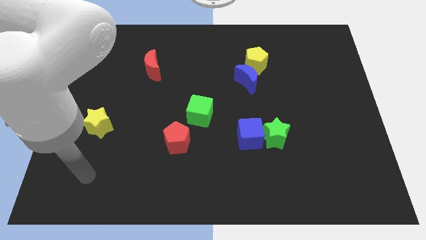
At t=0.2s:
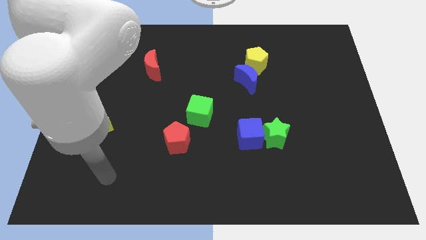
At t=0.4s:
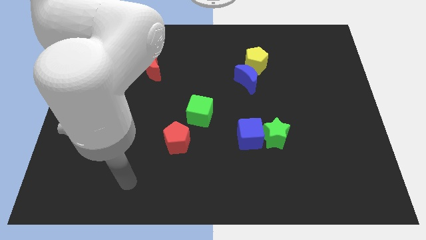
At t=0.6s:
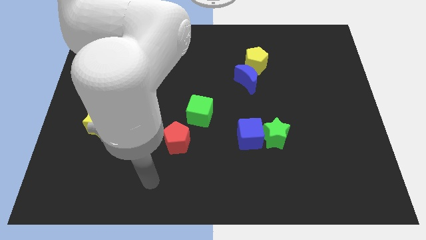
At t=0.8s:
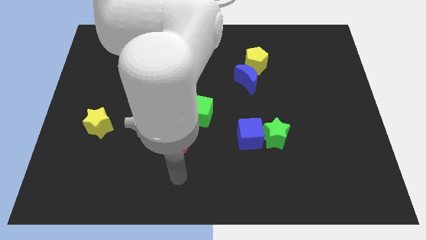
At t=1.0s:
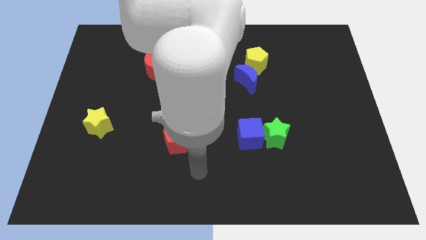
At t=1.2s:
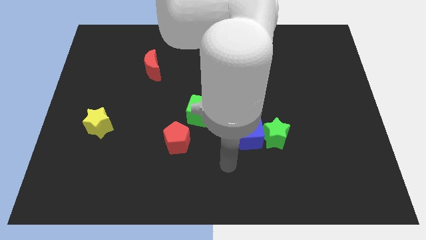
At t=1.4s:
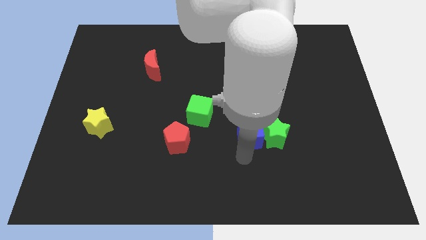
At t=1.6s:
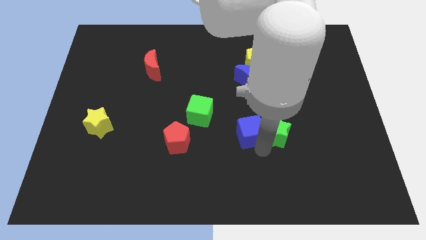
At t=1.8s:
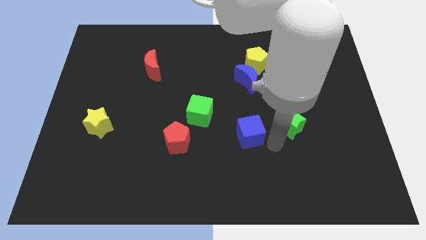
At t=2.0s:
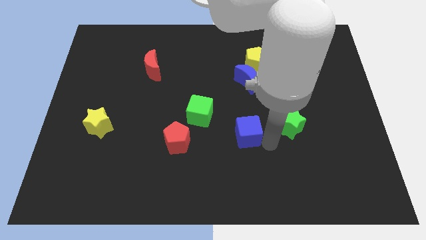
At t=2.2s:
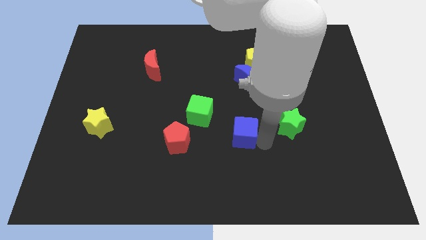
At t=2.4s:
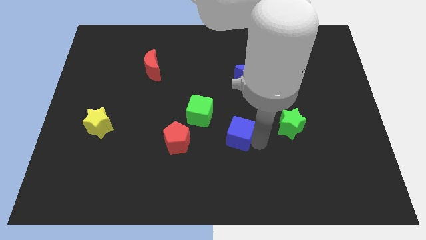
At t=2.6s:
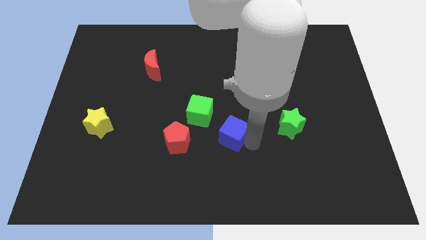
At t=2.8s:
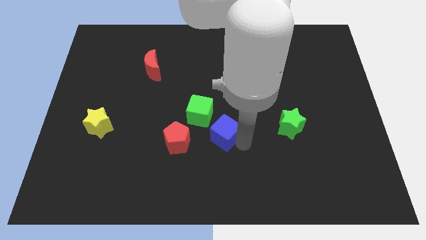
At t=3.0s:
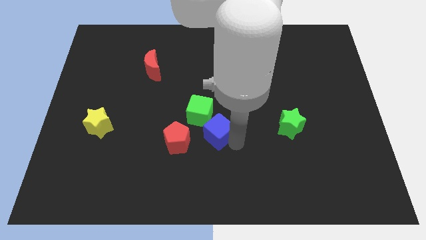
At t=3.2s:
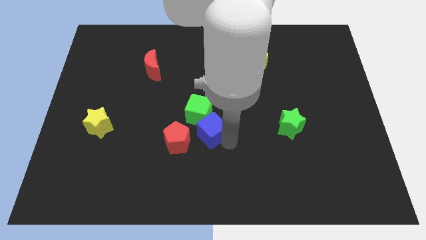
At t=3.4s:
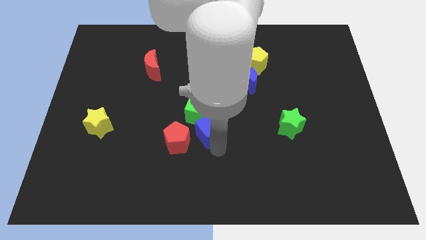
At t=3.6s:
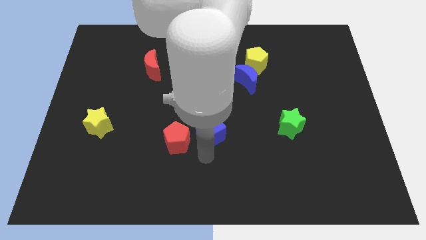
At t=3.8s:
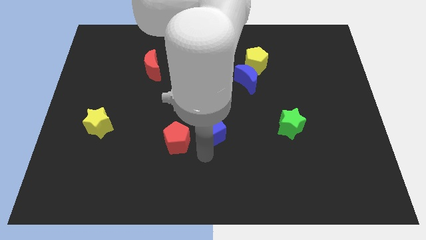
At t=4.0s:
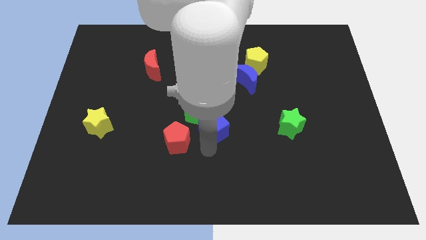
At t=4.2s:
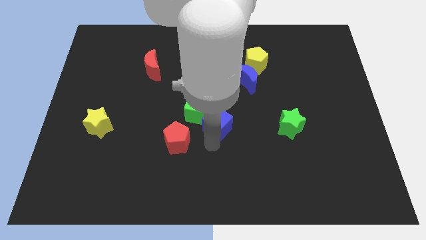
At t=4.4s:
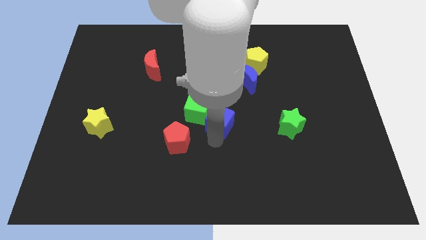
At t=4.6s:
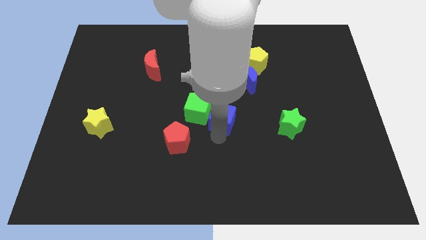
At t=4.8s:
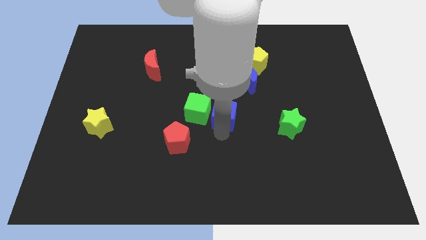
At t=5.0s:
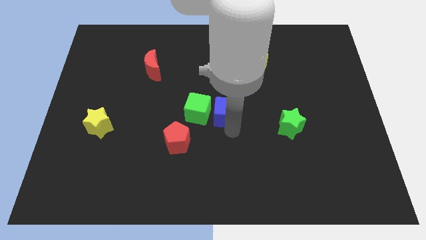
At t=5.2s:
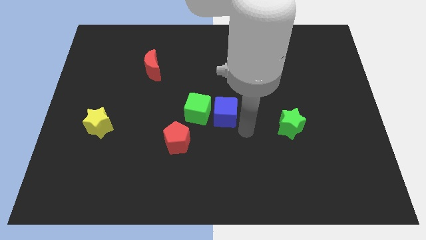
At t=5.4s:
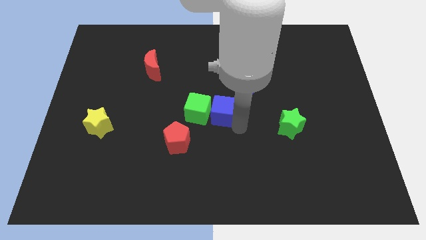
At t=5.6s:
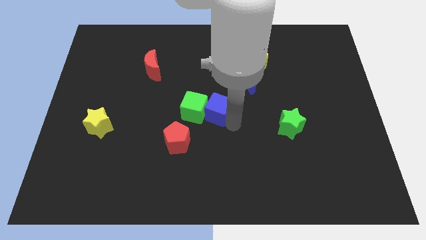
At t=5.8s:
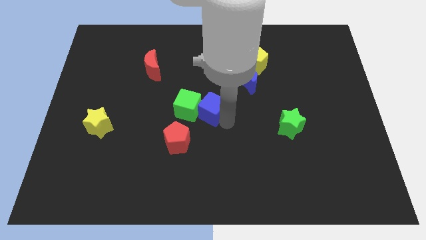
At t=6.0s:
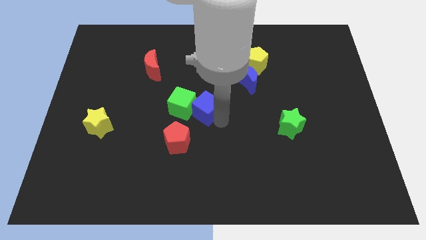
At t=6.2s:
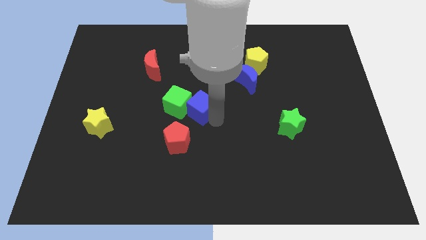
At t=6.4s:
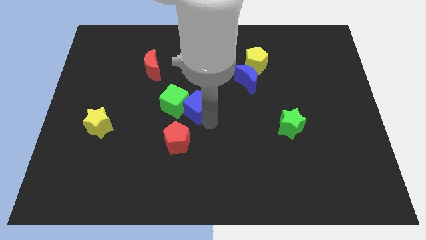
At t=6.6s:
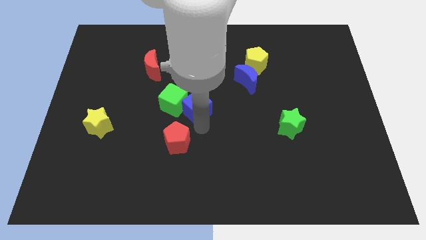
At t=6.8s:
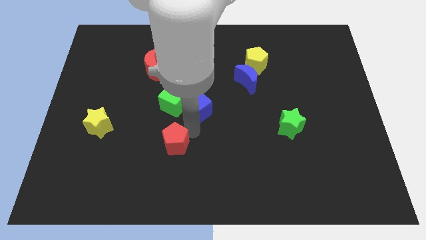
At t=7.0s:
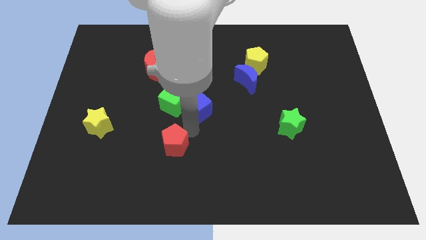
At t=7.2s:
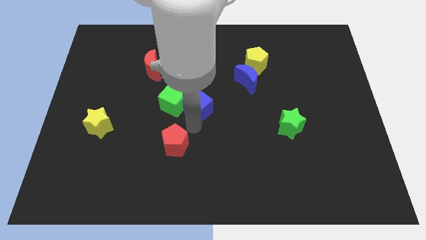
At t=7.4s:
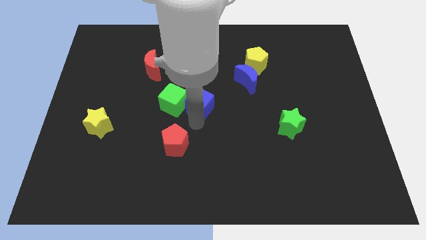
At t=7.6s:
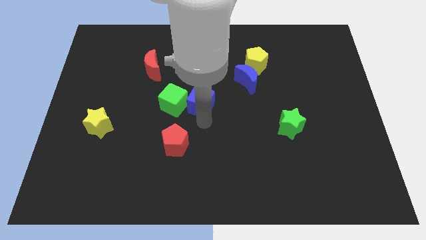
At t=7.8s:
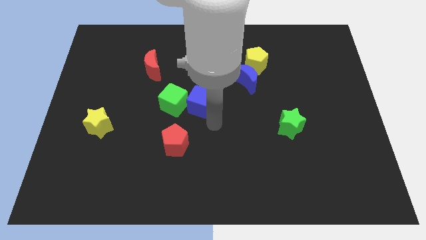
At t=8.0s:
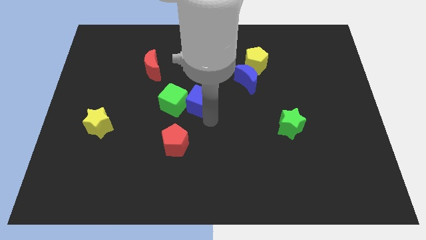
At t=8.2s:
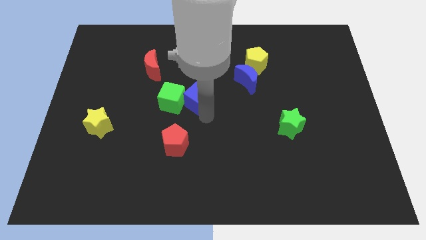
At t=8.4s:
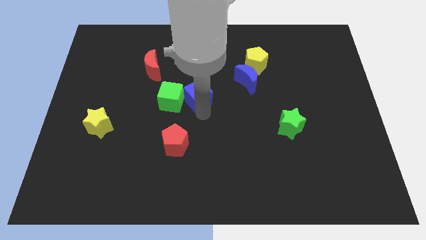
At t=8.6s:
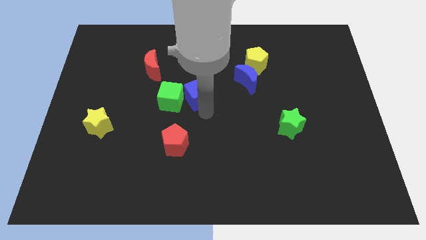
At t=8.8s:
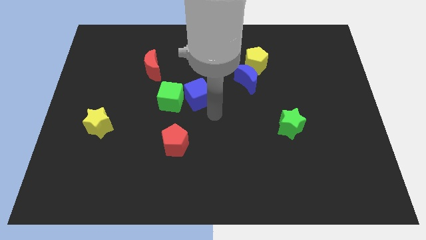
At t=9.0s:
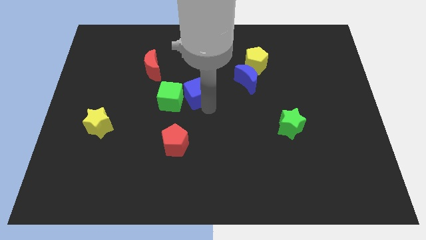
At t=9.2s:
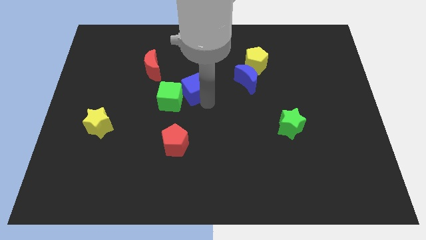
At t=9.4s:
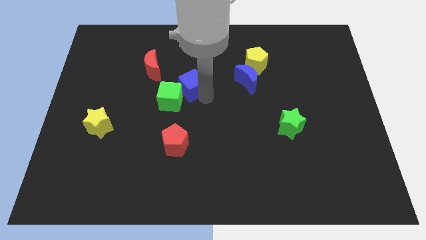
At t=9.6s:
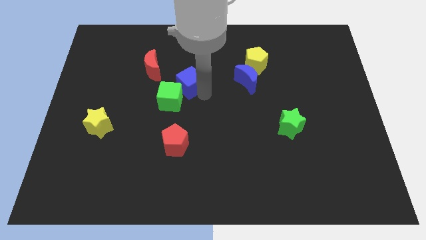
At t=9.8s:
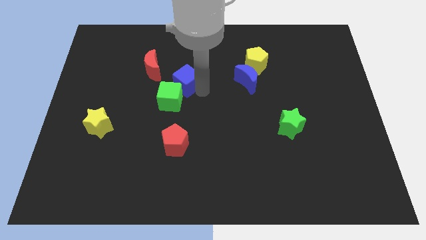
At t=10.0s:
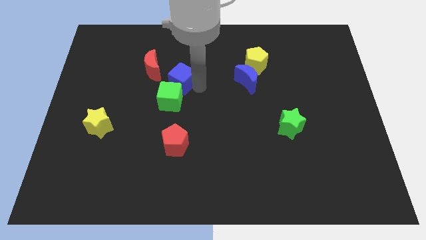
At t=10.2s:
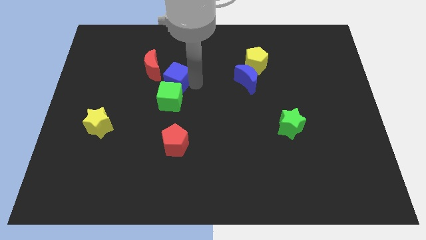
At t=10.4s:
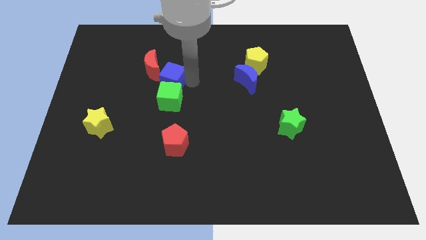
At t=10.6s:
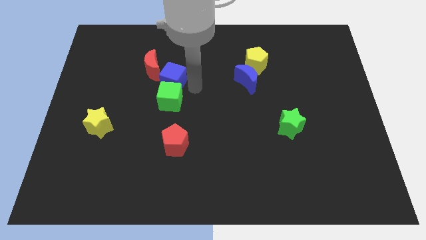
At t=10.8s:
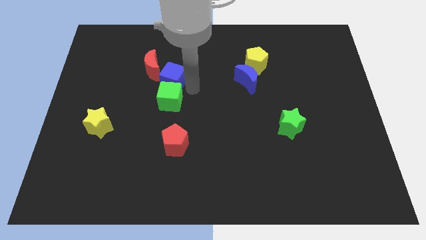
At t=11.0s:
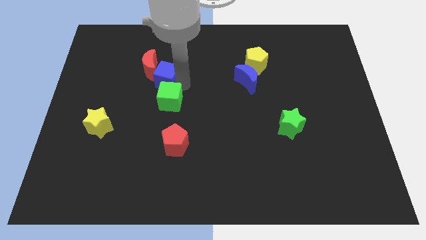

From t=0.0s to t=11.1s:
push the blue cube next to the red moon

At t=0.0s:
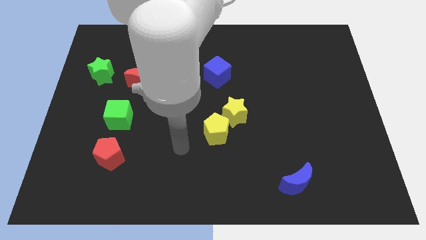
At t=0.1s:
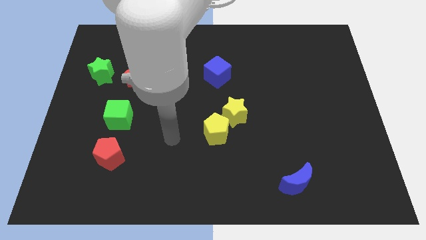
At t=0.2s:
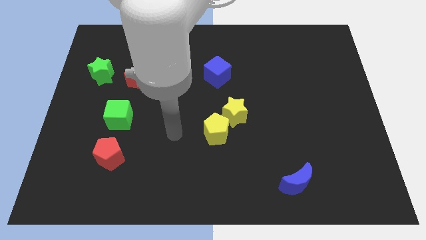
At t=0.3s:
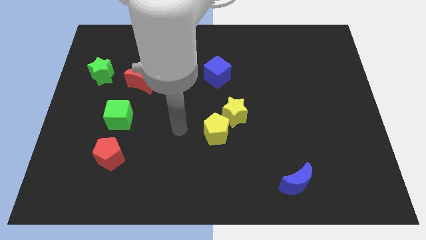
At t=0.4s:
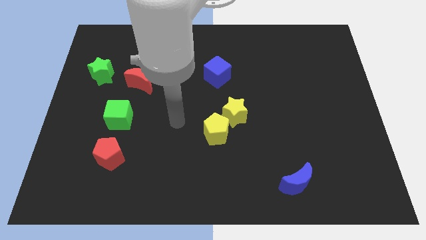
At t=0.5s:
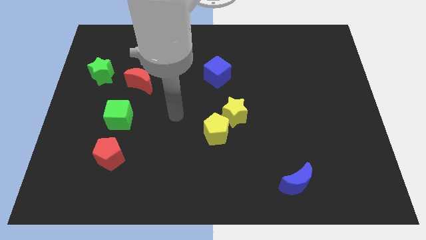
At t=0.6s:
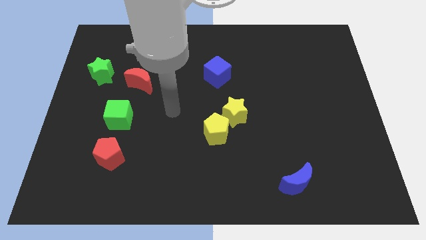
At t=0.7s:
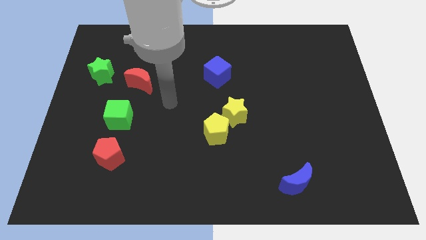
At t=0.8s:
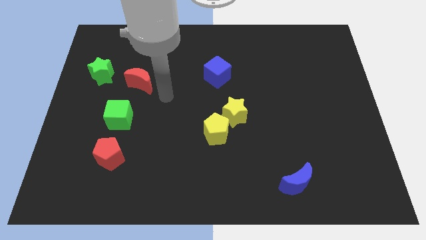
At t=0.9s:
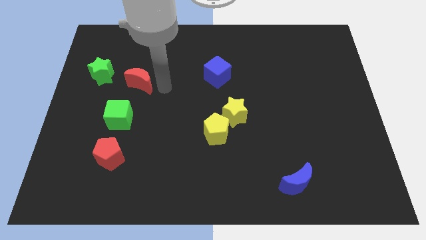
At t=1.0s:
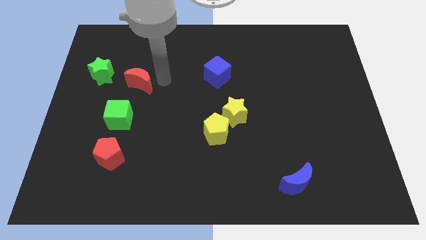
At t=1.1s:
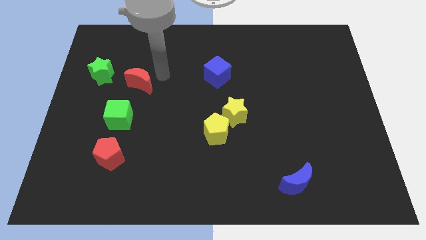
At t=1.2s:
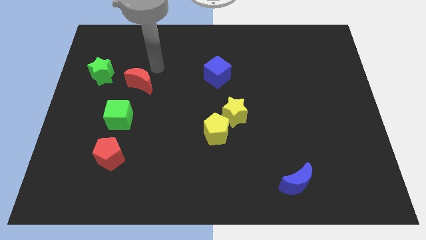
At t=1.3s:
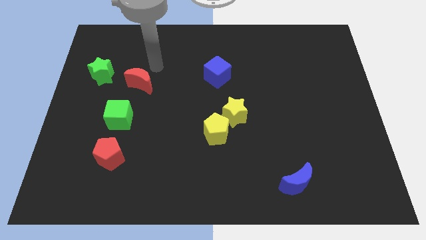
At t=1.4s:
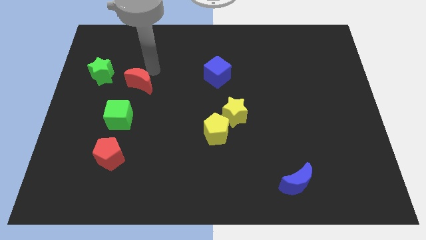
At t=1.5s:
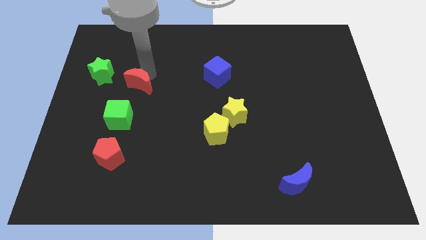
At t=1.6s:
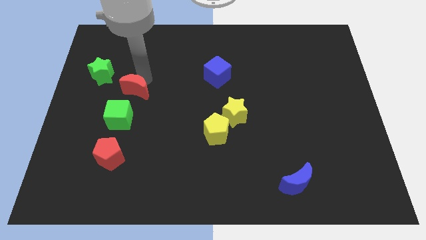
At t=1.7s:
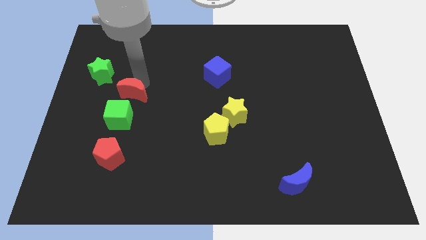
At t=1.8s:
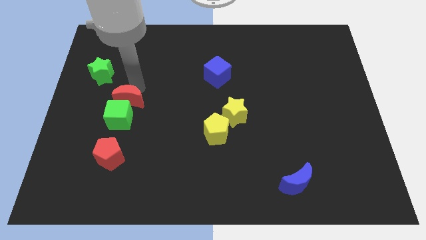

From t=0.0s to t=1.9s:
put the red moon next to the green cube
